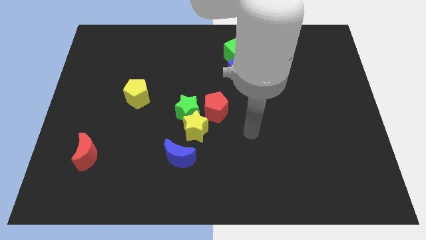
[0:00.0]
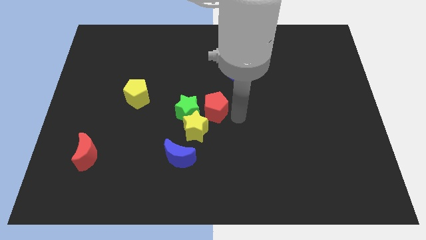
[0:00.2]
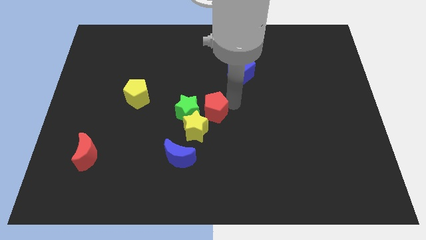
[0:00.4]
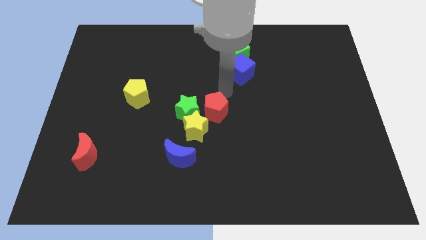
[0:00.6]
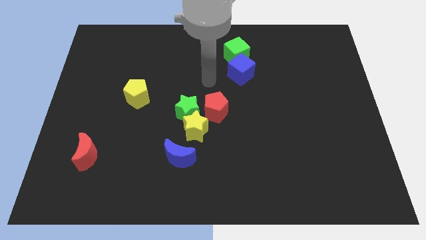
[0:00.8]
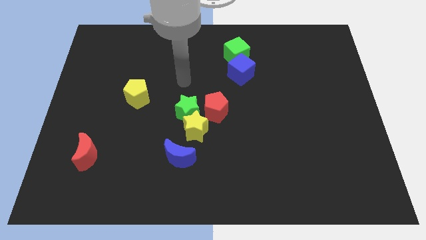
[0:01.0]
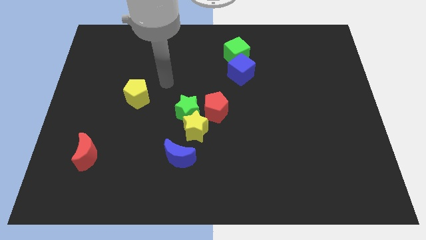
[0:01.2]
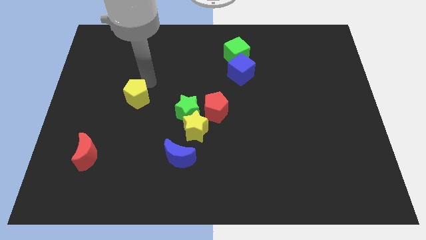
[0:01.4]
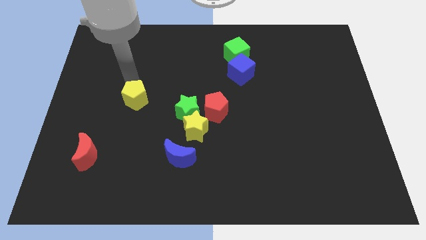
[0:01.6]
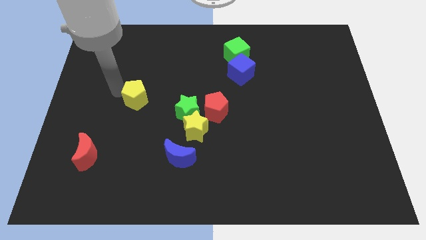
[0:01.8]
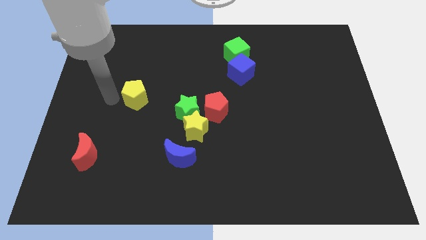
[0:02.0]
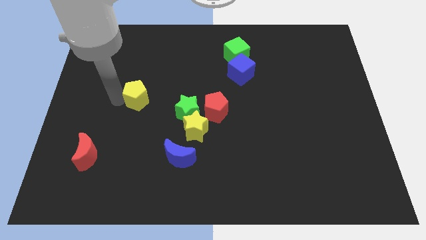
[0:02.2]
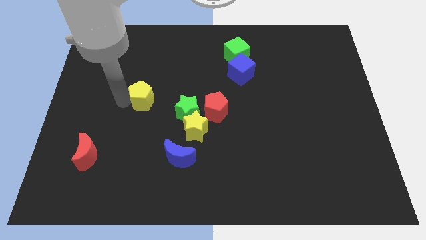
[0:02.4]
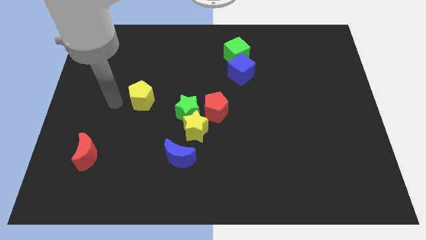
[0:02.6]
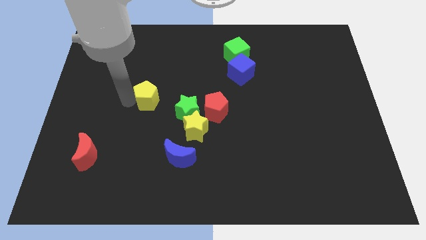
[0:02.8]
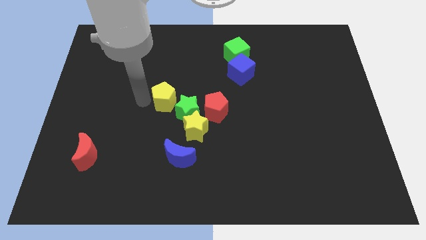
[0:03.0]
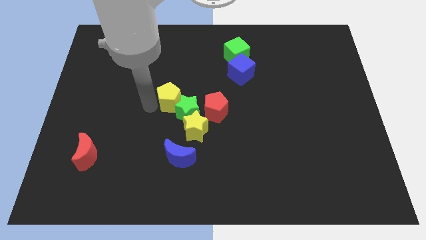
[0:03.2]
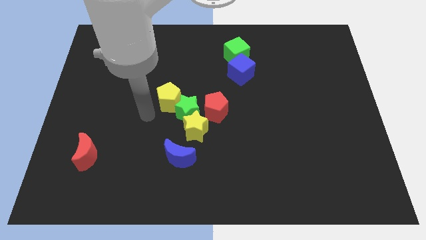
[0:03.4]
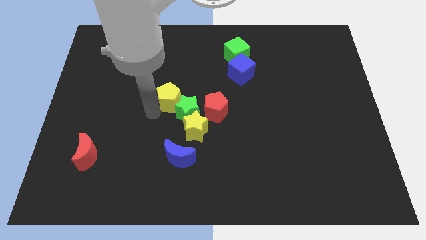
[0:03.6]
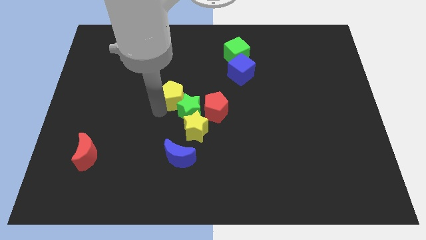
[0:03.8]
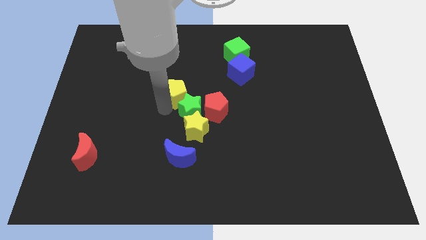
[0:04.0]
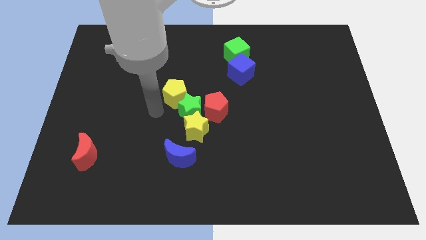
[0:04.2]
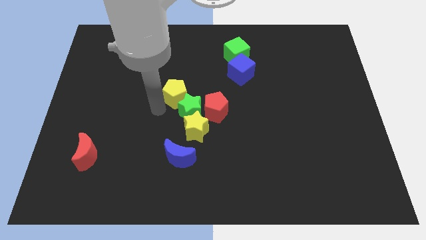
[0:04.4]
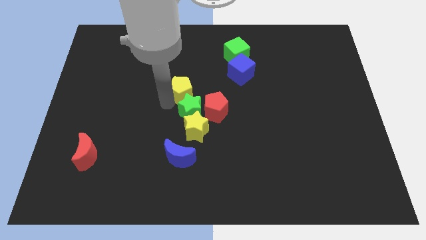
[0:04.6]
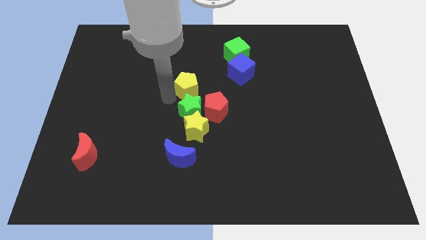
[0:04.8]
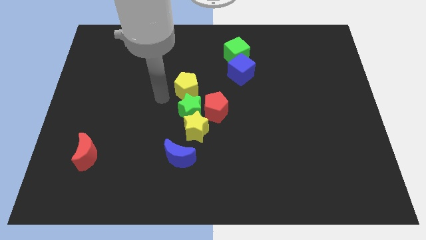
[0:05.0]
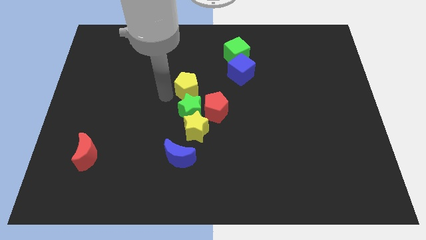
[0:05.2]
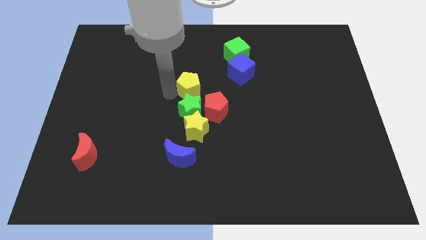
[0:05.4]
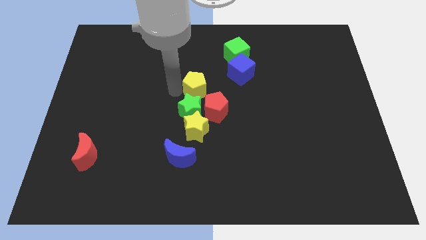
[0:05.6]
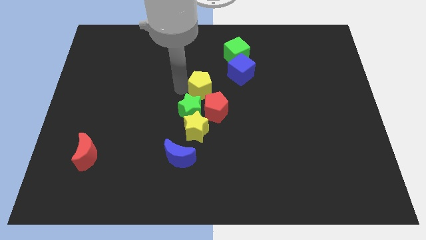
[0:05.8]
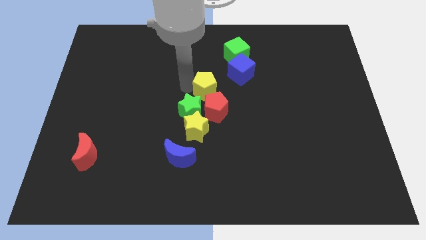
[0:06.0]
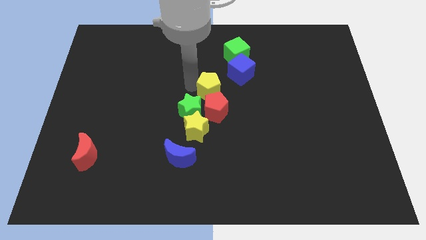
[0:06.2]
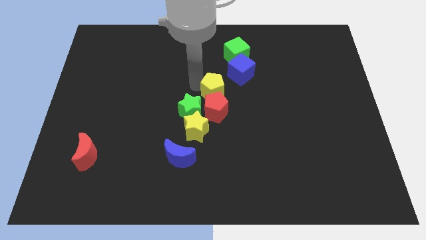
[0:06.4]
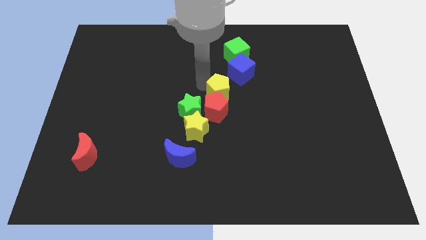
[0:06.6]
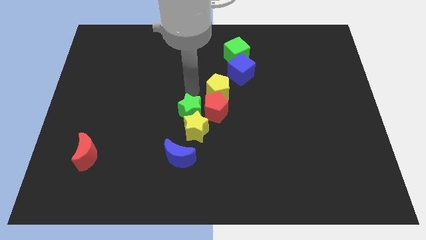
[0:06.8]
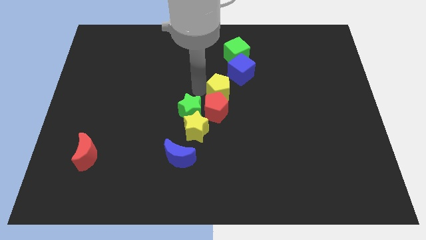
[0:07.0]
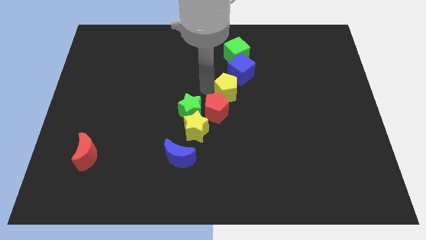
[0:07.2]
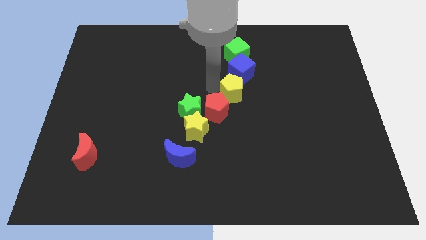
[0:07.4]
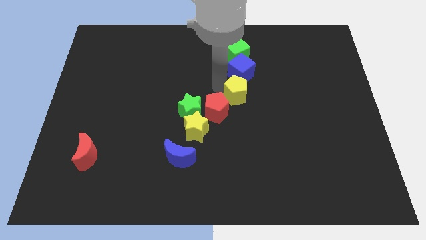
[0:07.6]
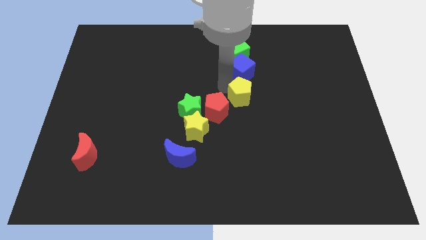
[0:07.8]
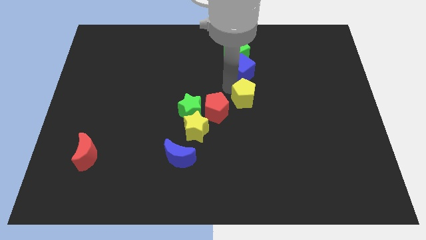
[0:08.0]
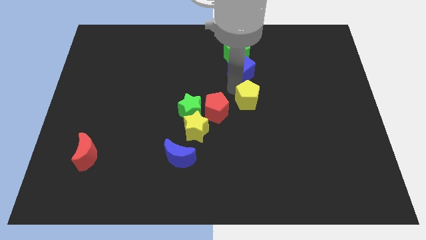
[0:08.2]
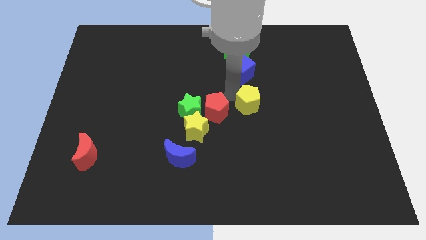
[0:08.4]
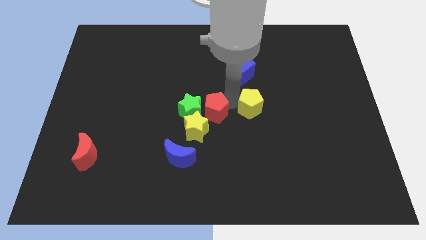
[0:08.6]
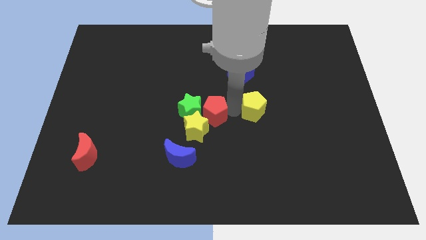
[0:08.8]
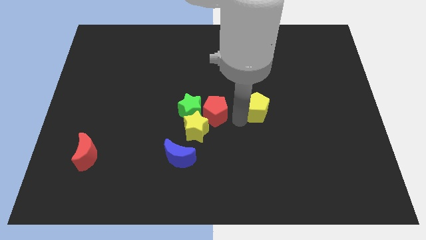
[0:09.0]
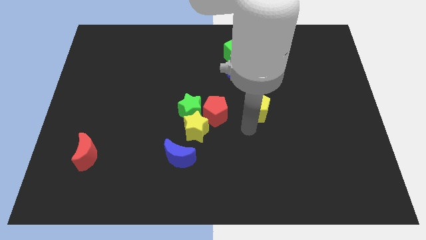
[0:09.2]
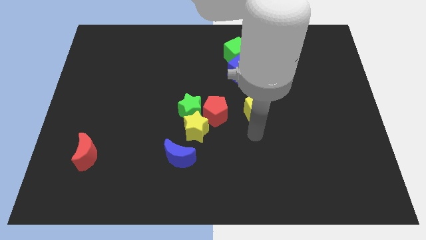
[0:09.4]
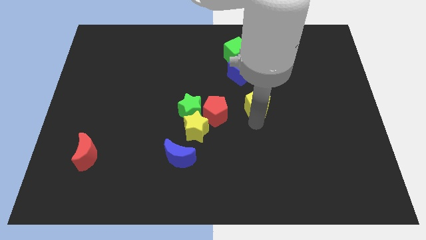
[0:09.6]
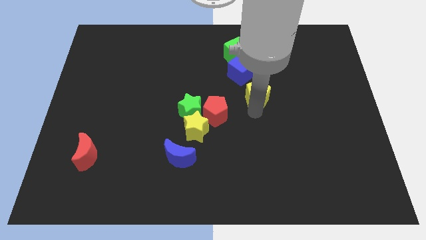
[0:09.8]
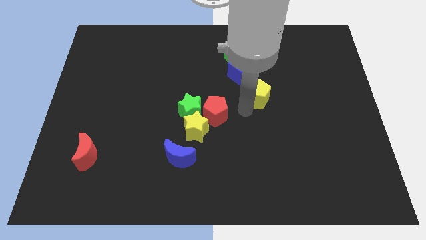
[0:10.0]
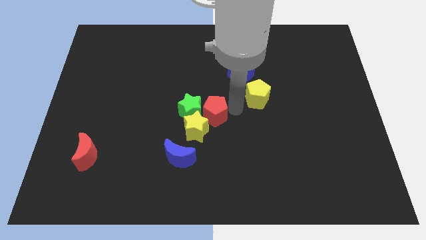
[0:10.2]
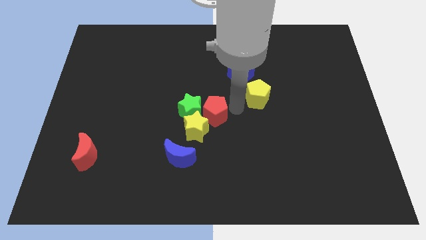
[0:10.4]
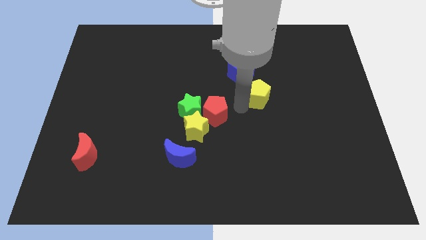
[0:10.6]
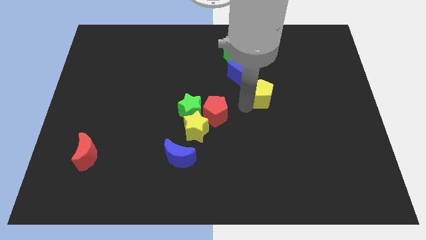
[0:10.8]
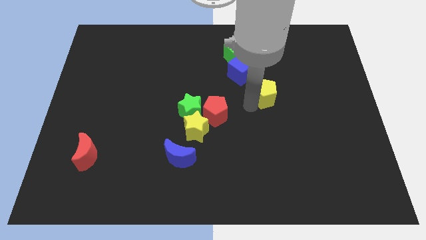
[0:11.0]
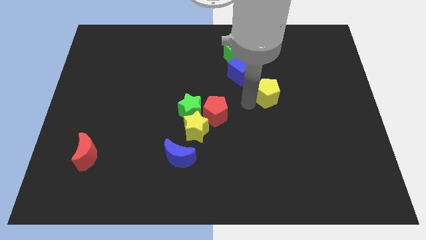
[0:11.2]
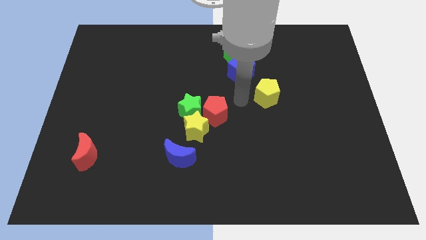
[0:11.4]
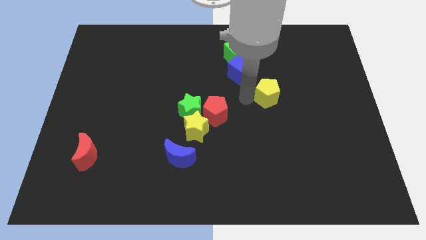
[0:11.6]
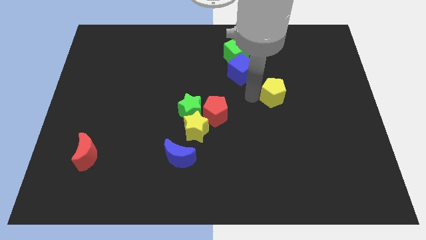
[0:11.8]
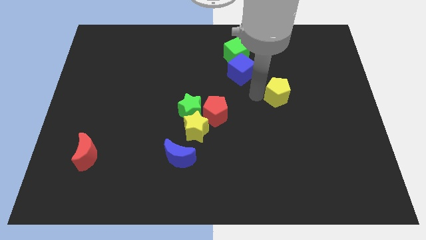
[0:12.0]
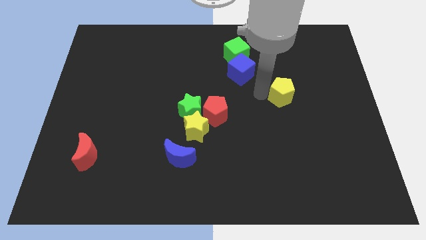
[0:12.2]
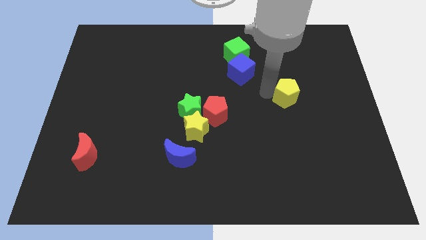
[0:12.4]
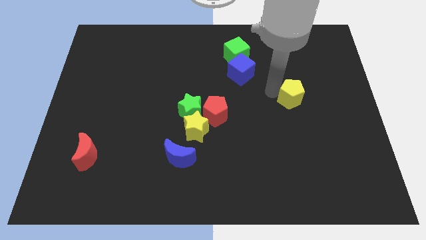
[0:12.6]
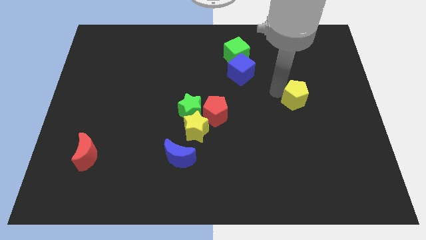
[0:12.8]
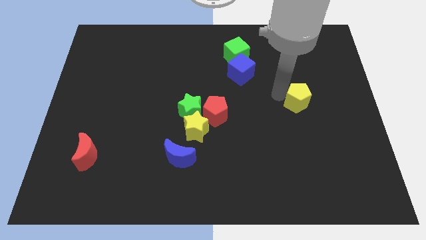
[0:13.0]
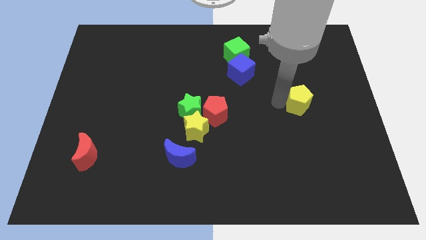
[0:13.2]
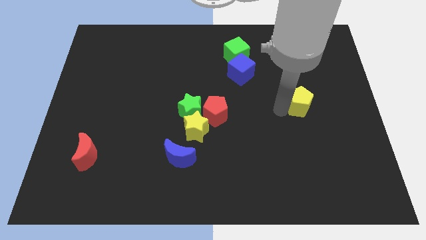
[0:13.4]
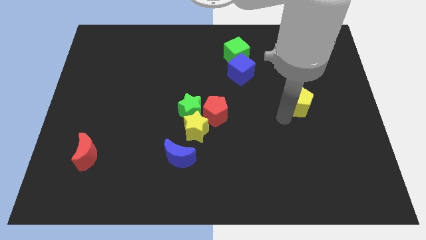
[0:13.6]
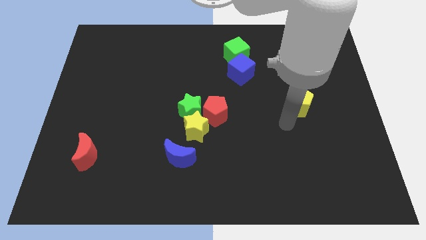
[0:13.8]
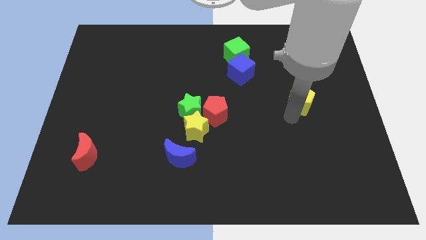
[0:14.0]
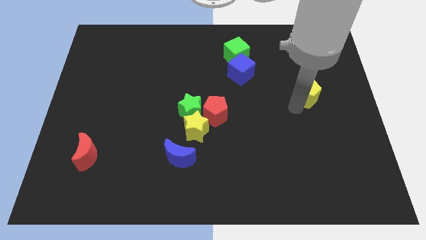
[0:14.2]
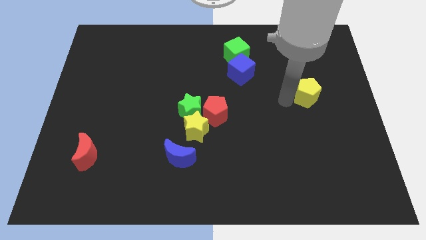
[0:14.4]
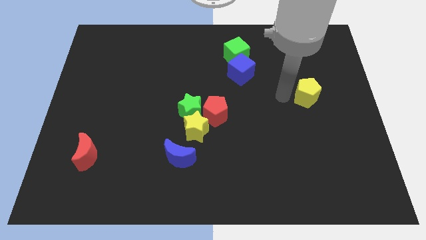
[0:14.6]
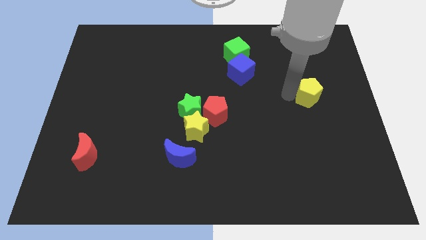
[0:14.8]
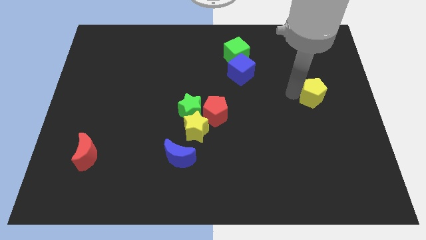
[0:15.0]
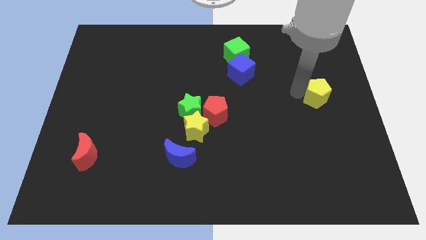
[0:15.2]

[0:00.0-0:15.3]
push the yellow pentagon to the center right

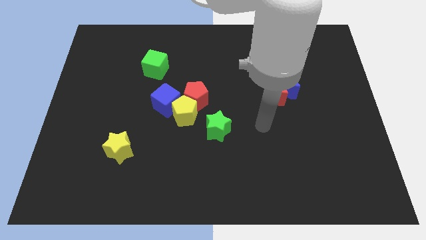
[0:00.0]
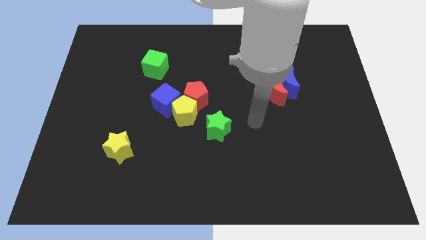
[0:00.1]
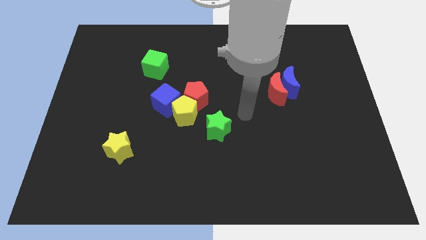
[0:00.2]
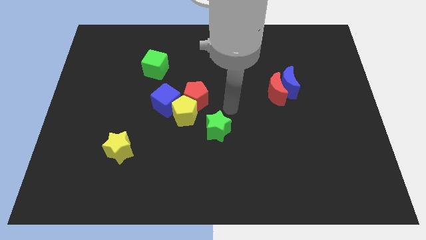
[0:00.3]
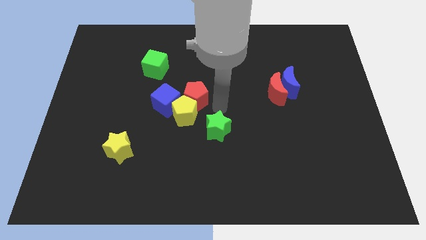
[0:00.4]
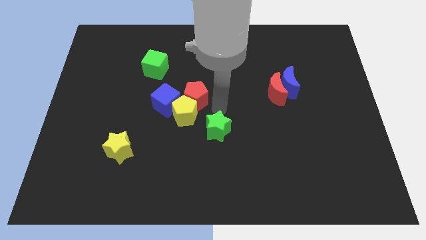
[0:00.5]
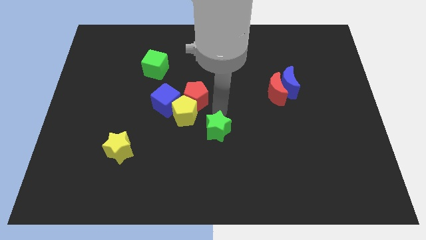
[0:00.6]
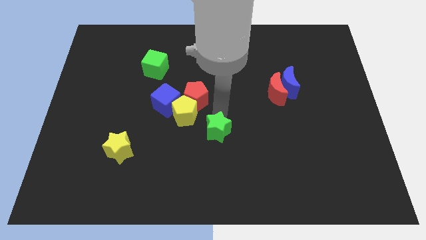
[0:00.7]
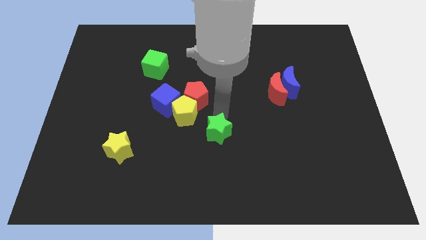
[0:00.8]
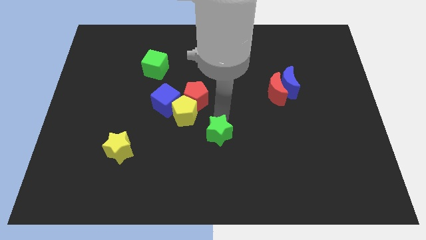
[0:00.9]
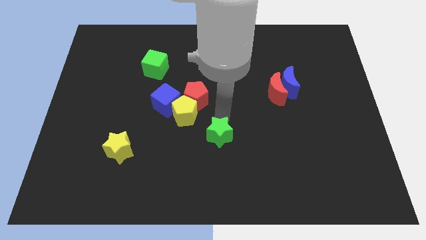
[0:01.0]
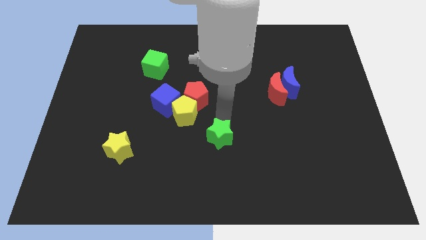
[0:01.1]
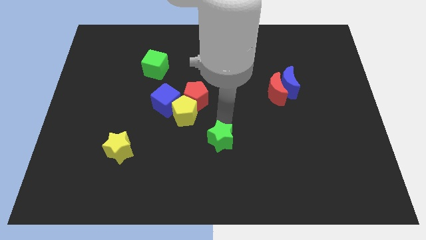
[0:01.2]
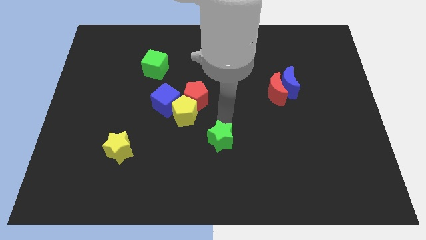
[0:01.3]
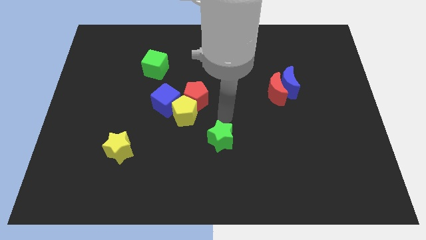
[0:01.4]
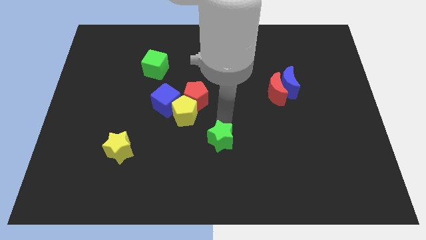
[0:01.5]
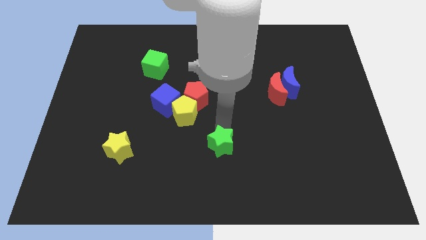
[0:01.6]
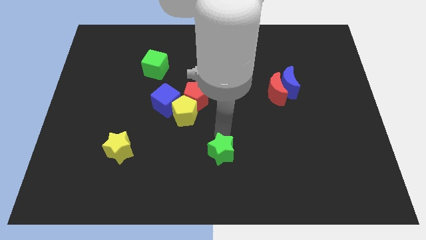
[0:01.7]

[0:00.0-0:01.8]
push the green star to the bottom side
